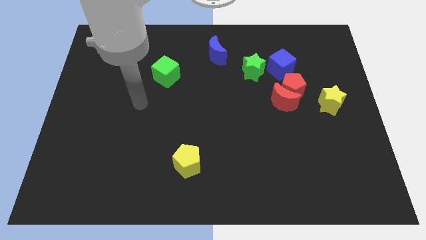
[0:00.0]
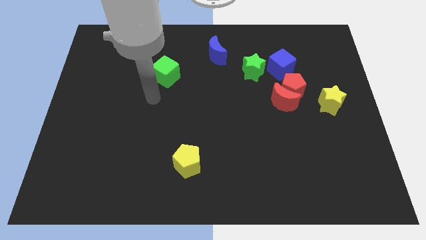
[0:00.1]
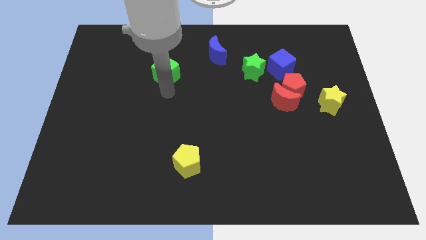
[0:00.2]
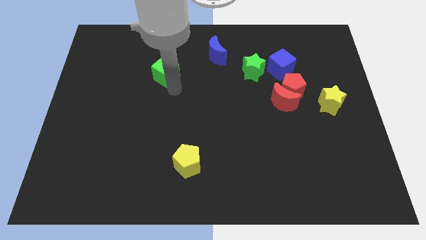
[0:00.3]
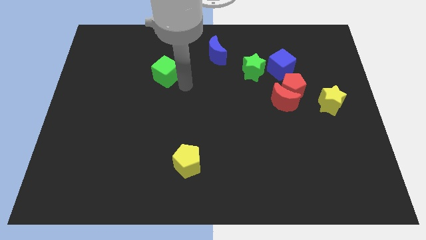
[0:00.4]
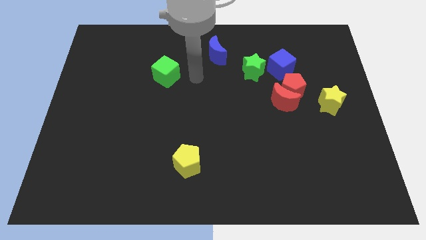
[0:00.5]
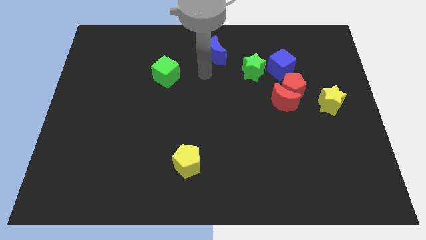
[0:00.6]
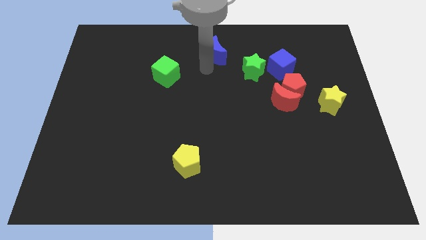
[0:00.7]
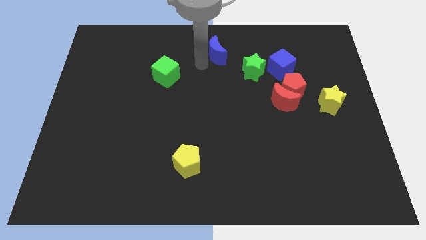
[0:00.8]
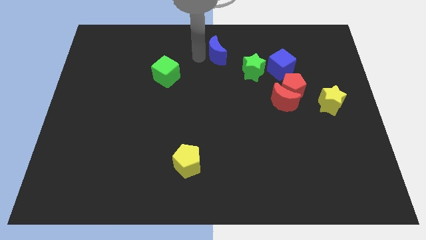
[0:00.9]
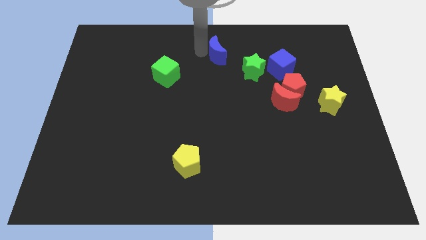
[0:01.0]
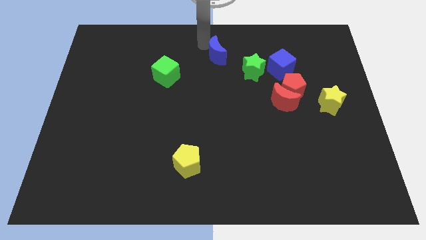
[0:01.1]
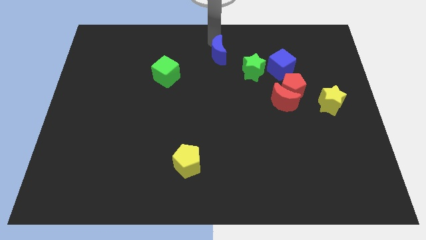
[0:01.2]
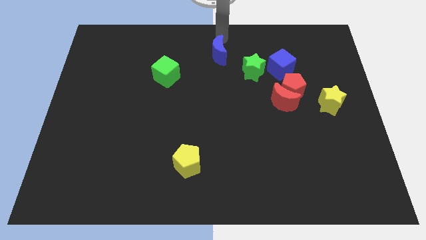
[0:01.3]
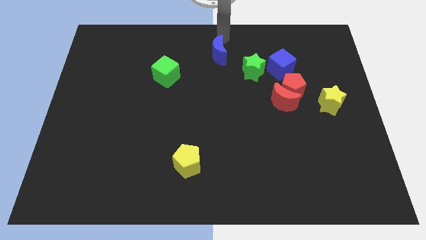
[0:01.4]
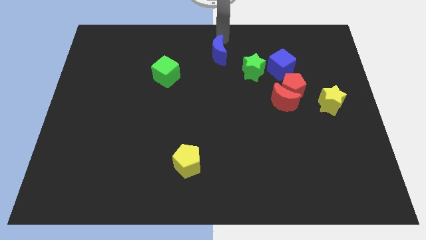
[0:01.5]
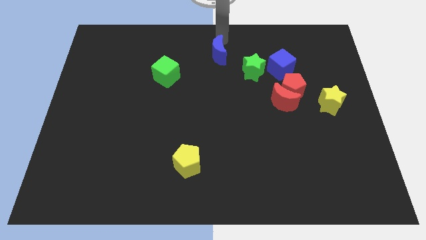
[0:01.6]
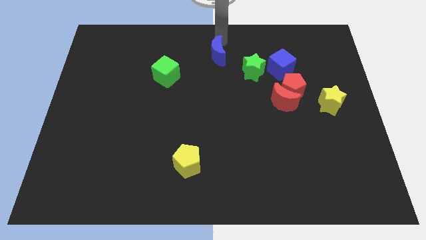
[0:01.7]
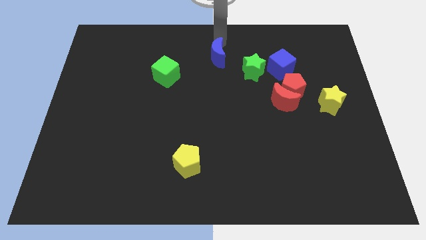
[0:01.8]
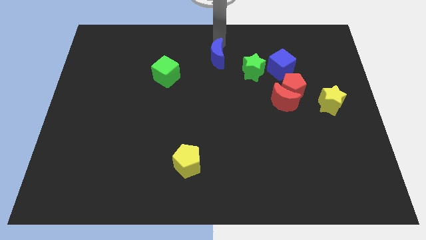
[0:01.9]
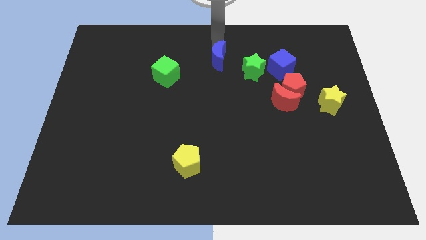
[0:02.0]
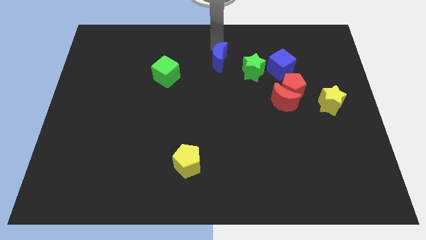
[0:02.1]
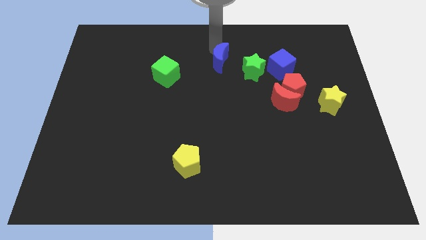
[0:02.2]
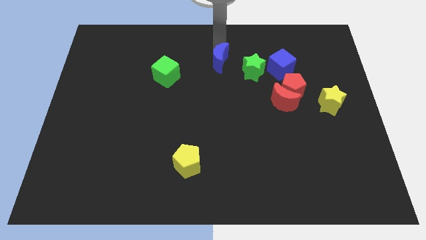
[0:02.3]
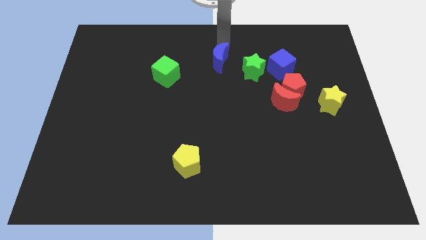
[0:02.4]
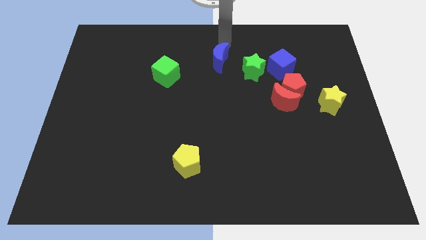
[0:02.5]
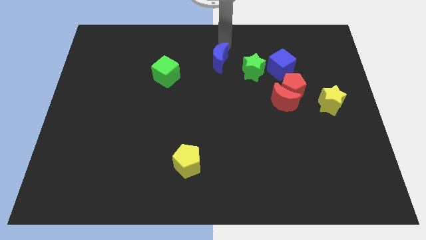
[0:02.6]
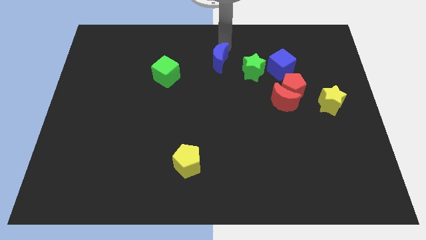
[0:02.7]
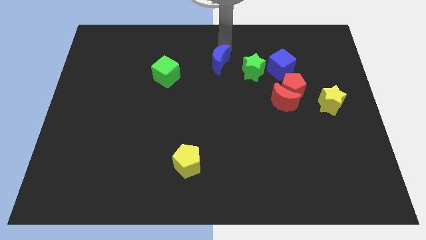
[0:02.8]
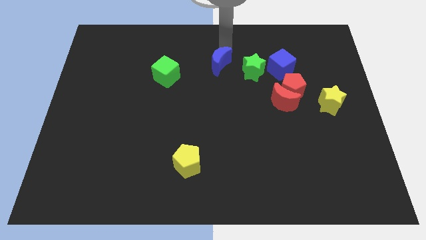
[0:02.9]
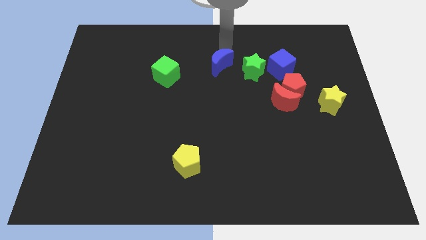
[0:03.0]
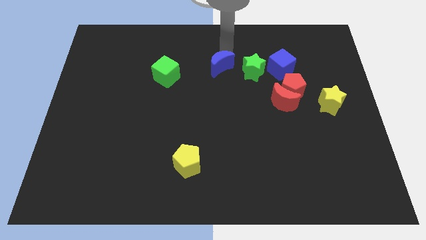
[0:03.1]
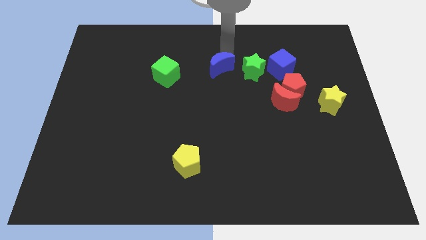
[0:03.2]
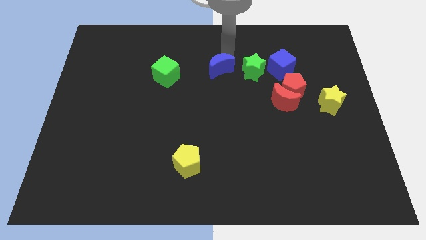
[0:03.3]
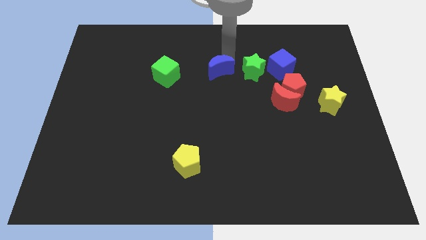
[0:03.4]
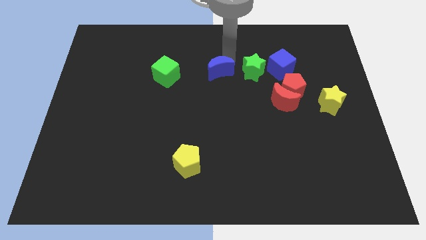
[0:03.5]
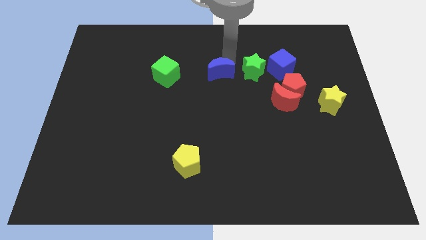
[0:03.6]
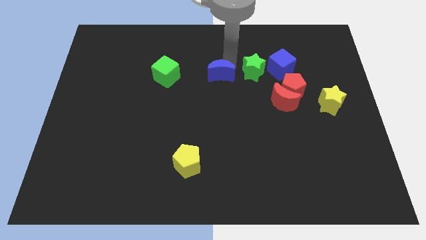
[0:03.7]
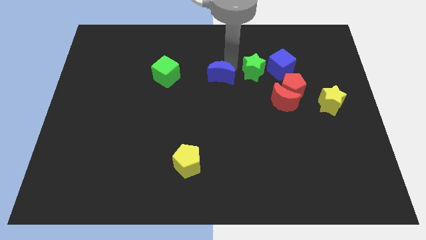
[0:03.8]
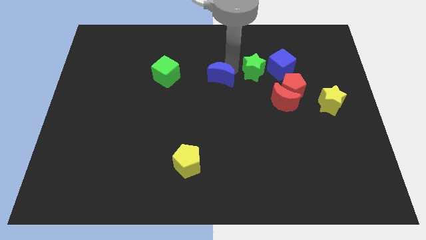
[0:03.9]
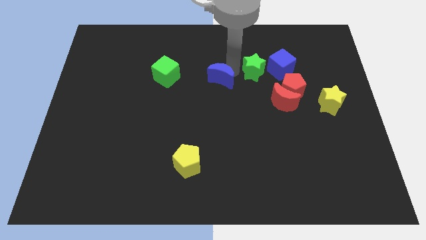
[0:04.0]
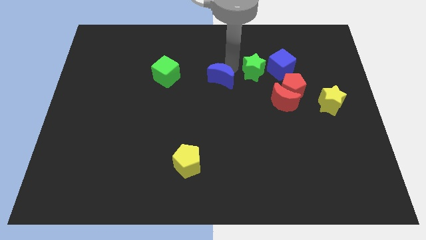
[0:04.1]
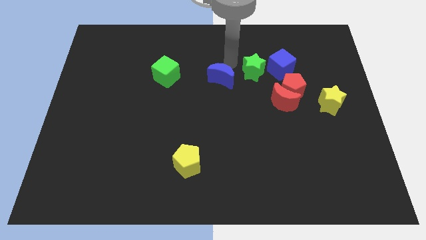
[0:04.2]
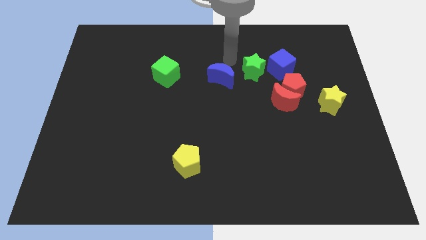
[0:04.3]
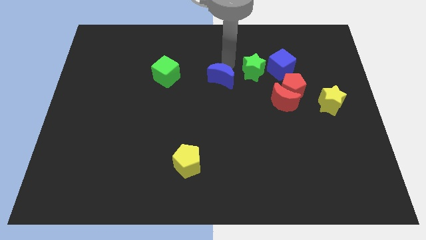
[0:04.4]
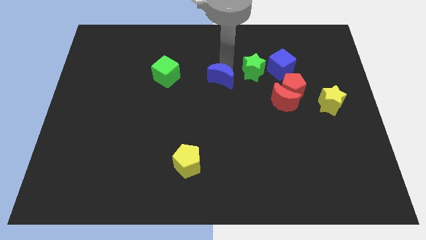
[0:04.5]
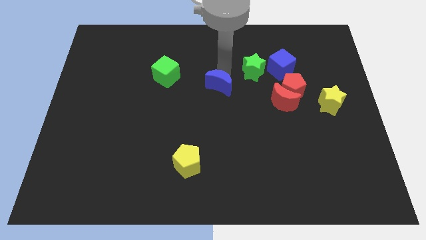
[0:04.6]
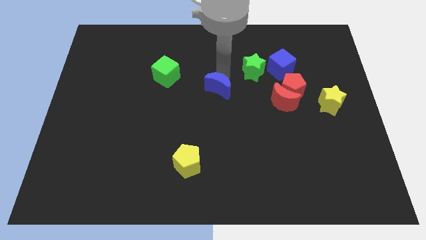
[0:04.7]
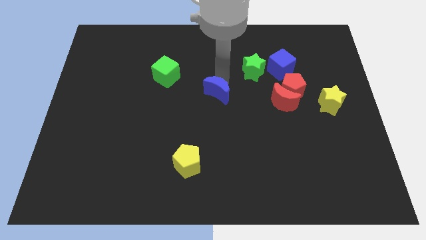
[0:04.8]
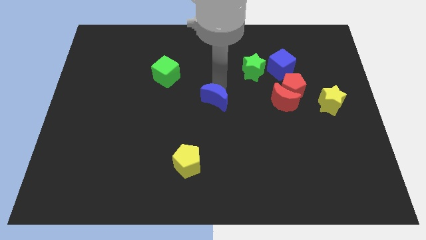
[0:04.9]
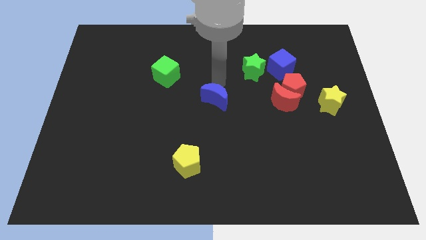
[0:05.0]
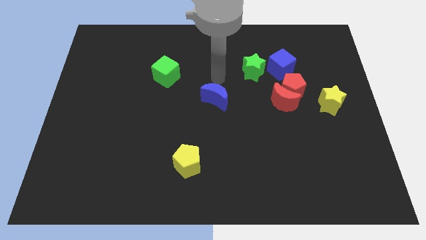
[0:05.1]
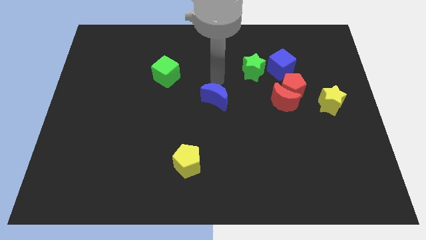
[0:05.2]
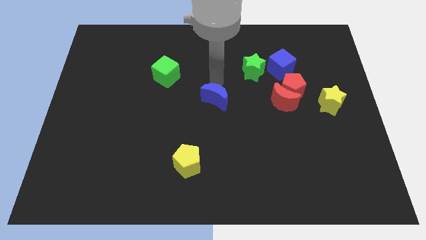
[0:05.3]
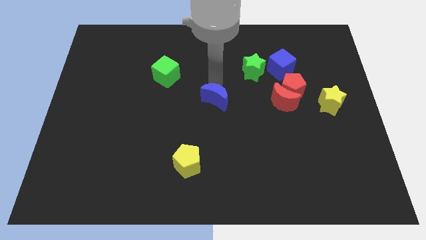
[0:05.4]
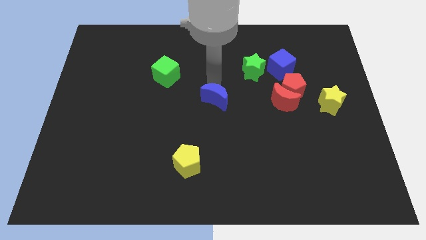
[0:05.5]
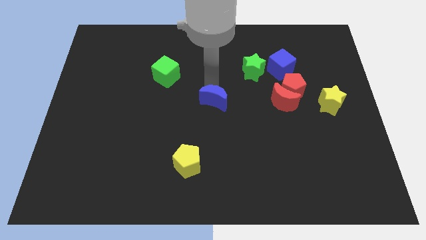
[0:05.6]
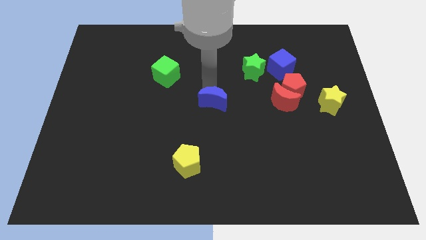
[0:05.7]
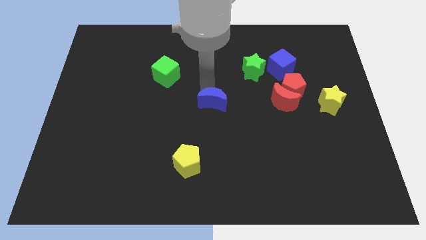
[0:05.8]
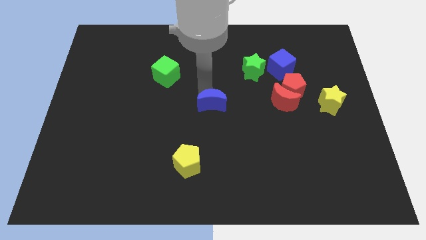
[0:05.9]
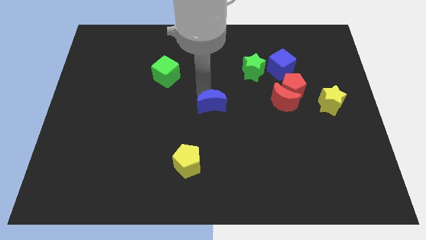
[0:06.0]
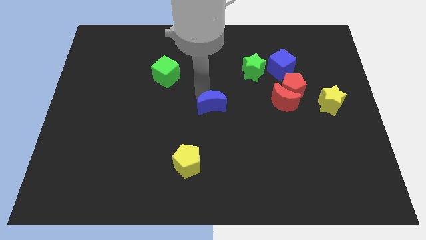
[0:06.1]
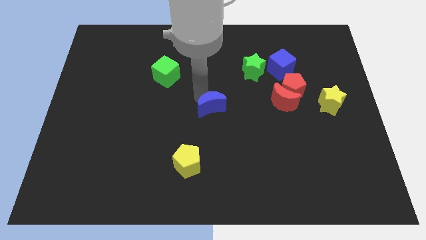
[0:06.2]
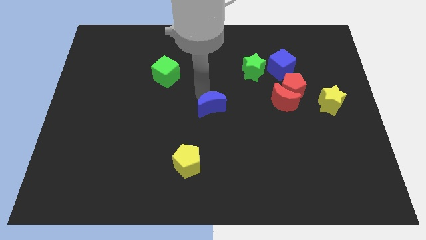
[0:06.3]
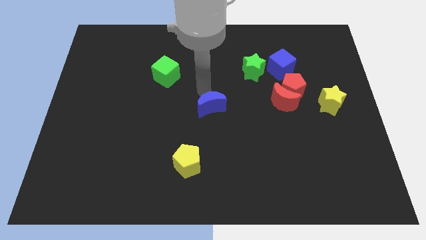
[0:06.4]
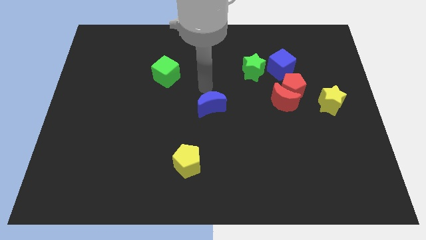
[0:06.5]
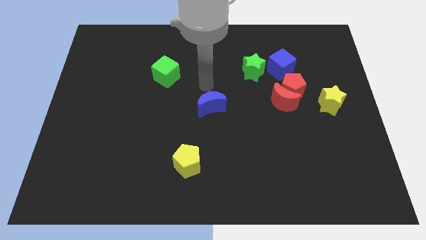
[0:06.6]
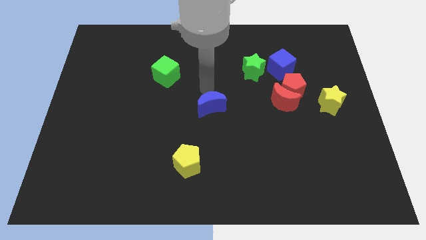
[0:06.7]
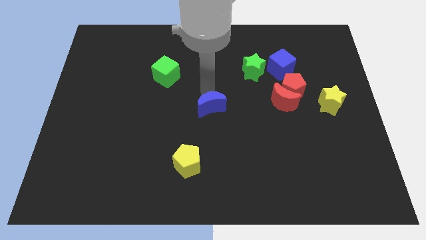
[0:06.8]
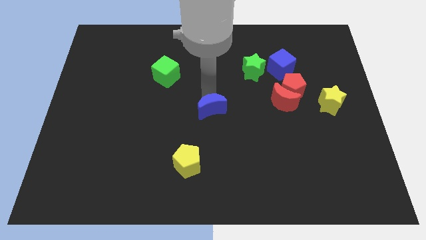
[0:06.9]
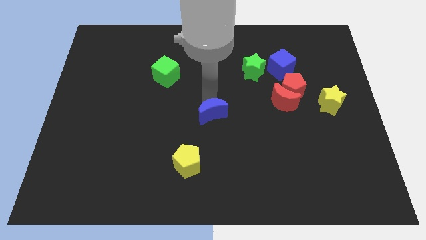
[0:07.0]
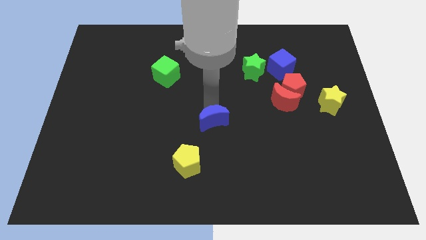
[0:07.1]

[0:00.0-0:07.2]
move the blue moon downwards

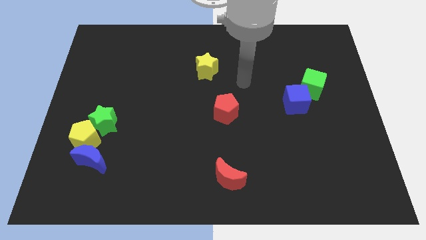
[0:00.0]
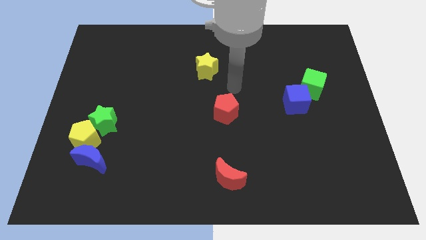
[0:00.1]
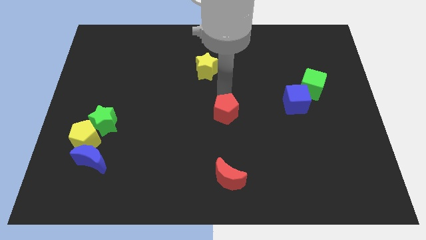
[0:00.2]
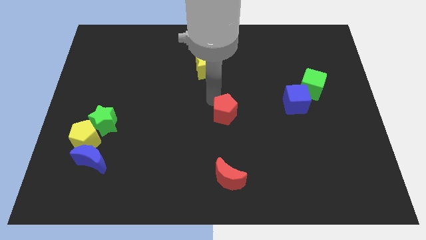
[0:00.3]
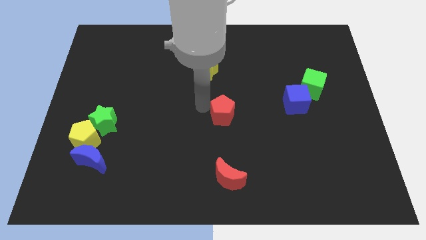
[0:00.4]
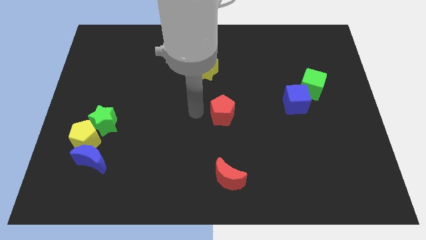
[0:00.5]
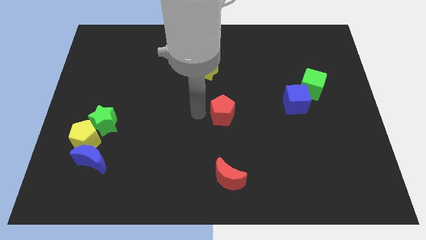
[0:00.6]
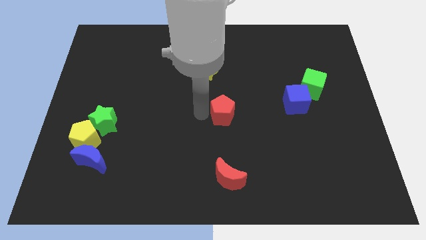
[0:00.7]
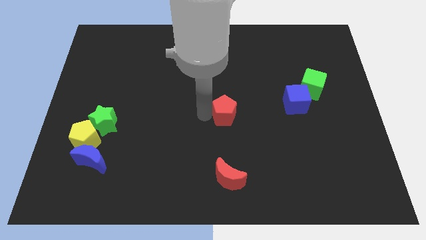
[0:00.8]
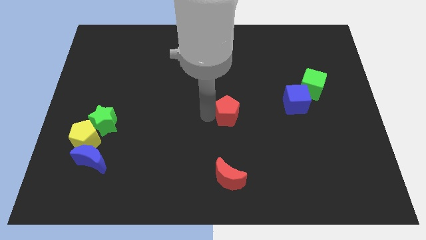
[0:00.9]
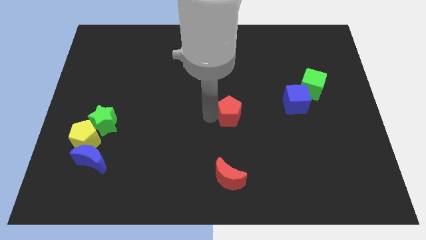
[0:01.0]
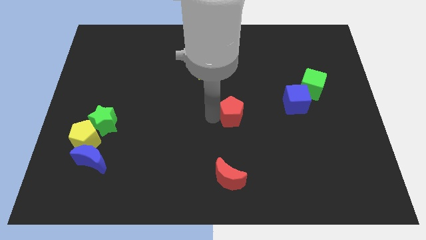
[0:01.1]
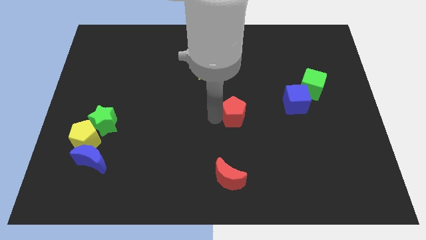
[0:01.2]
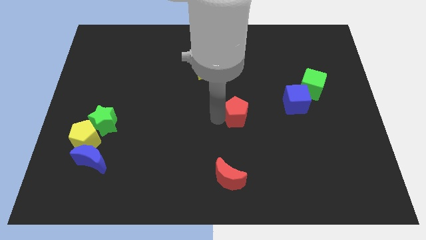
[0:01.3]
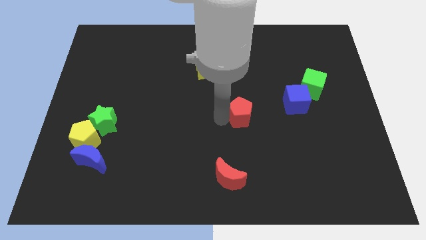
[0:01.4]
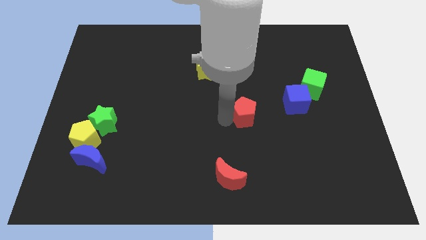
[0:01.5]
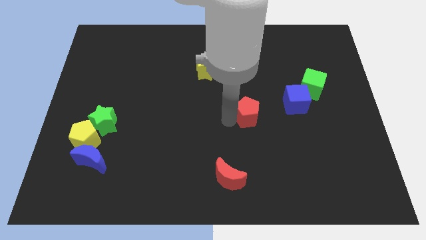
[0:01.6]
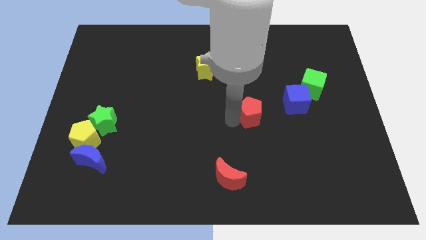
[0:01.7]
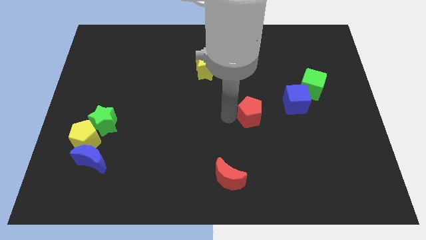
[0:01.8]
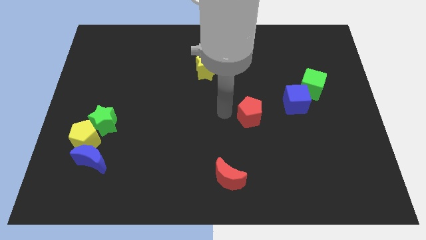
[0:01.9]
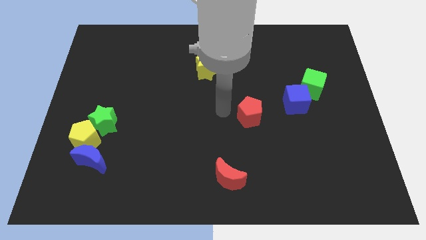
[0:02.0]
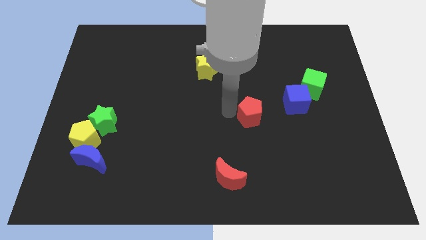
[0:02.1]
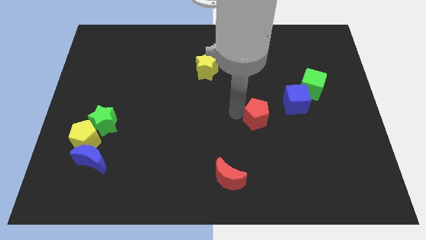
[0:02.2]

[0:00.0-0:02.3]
move the red pentagon a little to the right
